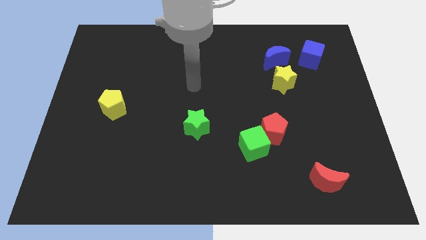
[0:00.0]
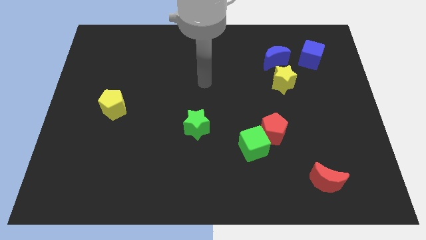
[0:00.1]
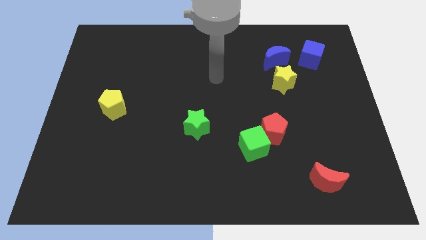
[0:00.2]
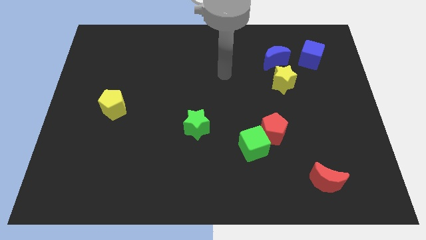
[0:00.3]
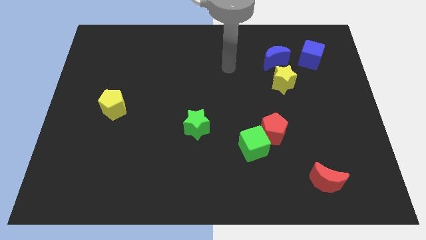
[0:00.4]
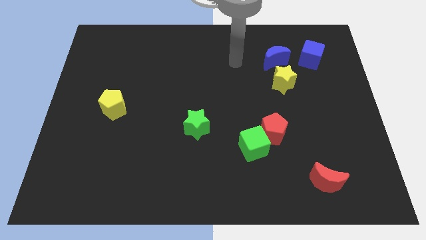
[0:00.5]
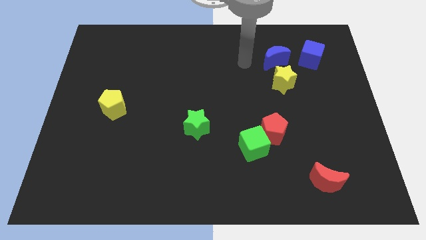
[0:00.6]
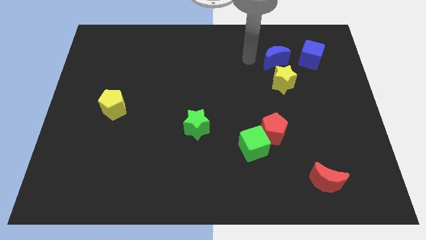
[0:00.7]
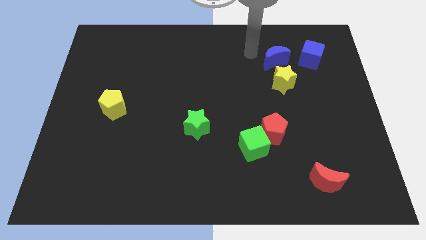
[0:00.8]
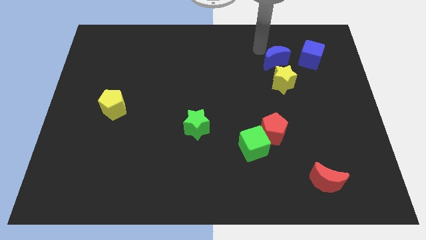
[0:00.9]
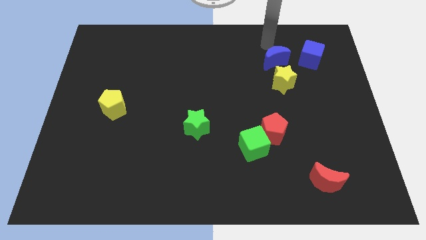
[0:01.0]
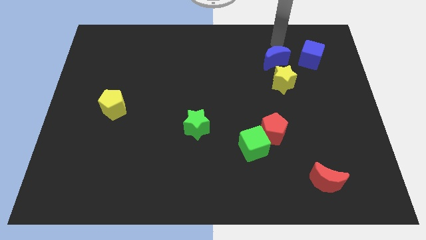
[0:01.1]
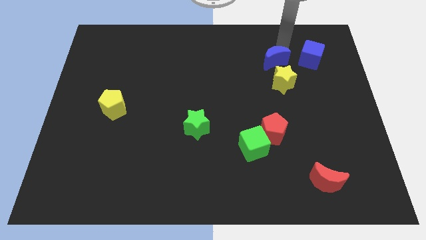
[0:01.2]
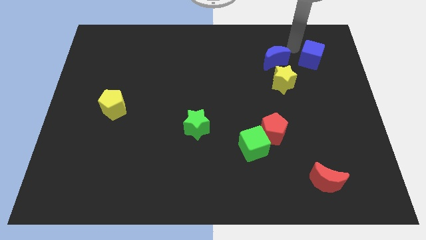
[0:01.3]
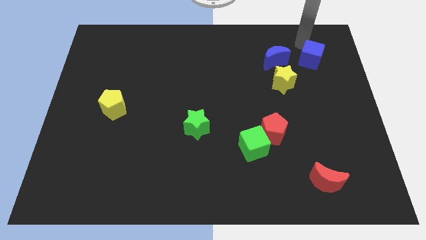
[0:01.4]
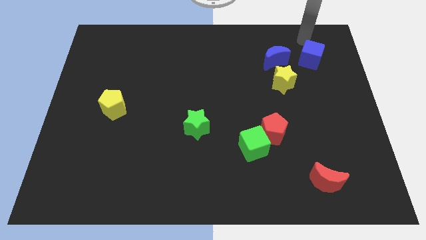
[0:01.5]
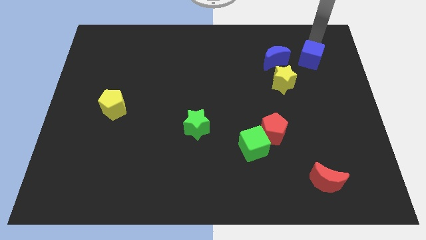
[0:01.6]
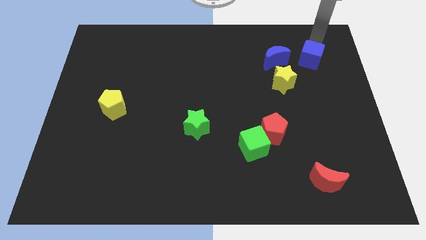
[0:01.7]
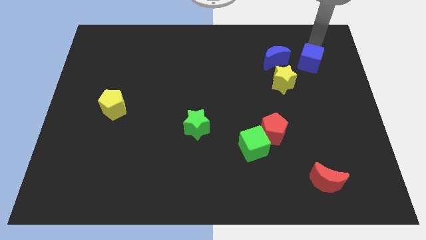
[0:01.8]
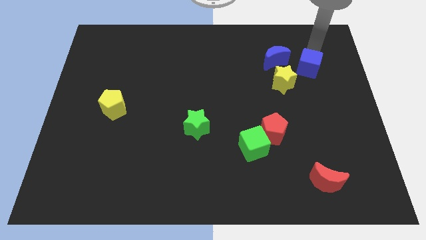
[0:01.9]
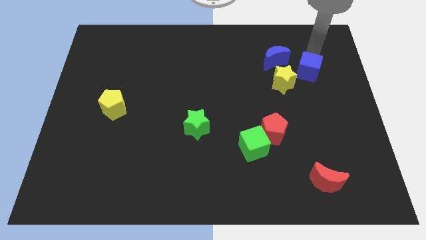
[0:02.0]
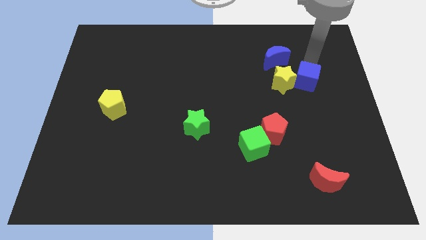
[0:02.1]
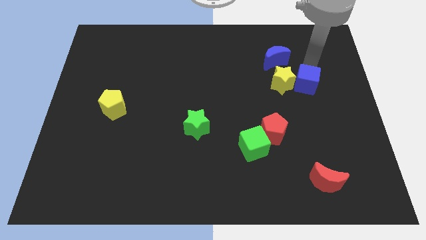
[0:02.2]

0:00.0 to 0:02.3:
slightly slide the blue cube diagonally downwards and to the left

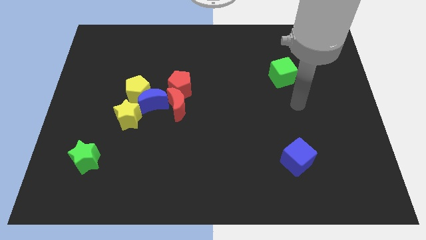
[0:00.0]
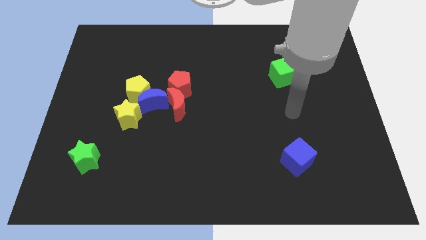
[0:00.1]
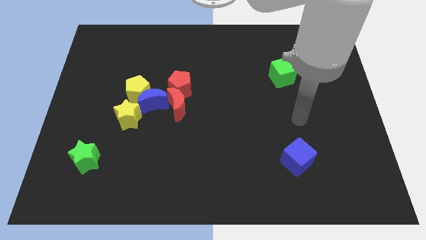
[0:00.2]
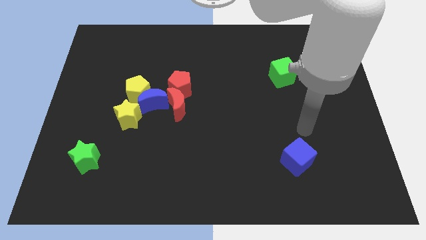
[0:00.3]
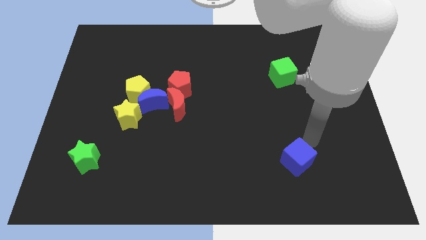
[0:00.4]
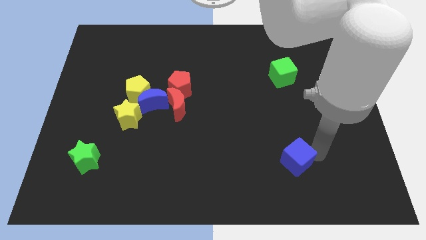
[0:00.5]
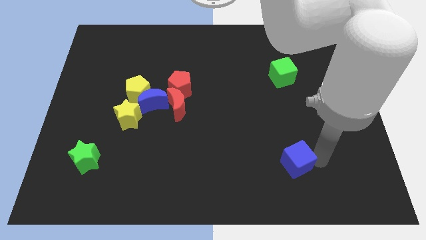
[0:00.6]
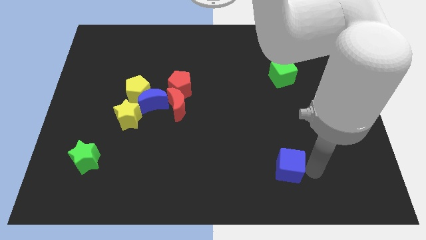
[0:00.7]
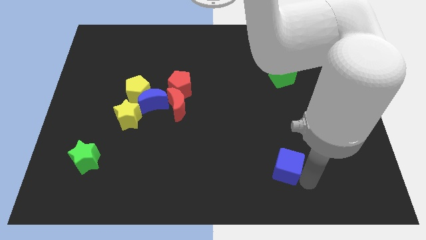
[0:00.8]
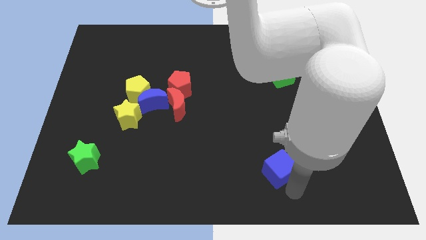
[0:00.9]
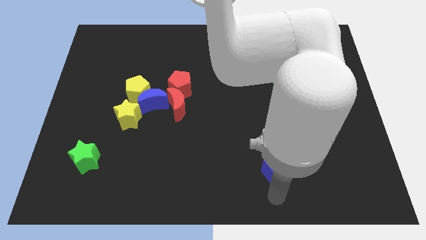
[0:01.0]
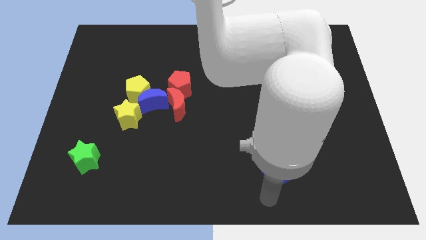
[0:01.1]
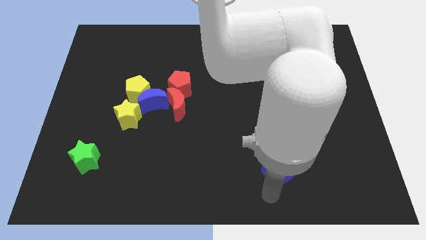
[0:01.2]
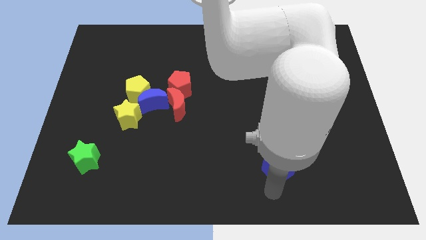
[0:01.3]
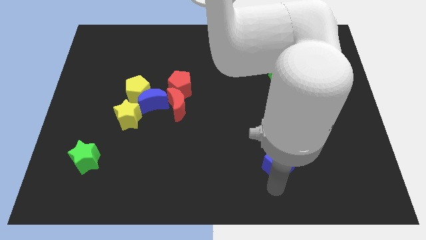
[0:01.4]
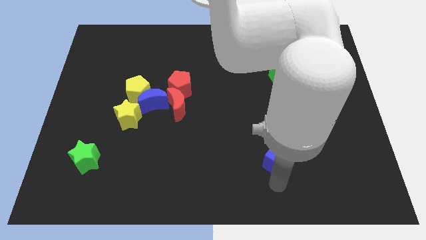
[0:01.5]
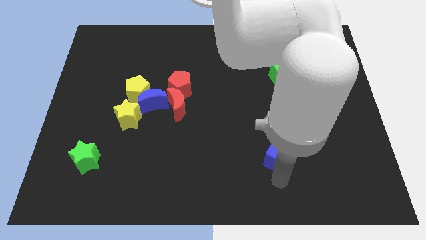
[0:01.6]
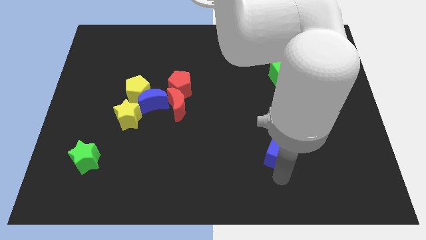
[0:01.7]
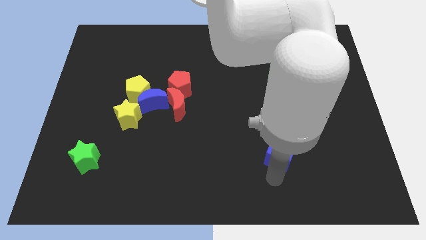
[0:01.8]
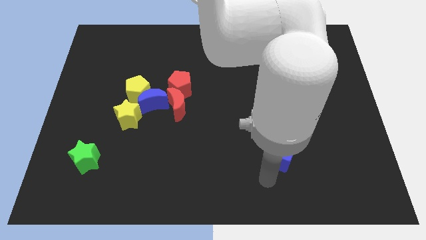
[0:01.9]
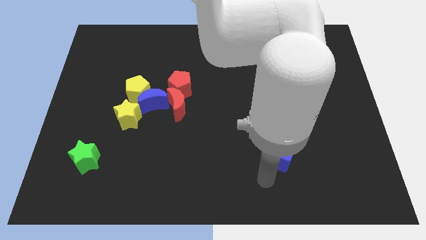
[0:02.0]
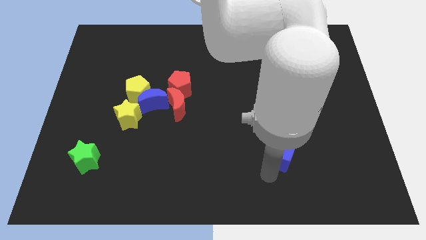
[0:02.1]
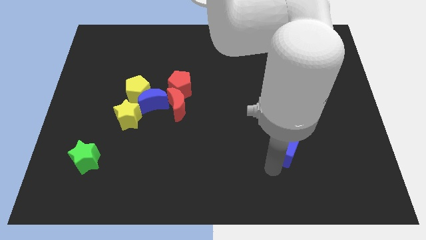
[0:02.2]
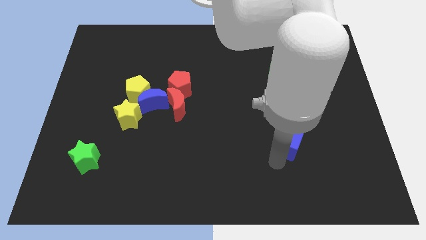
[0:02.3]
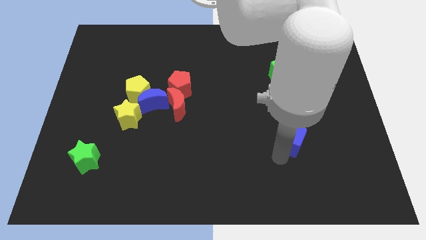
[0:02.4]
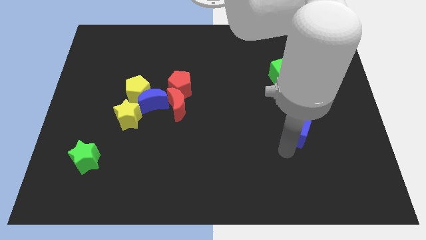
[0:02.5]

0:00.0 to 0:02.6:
slide the blue cube up somewhat

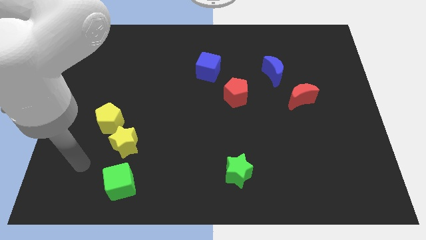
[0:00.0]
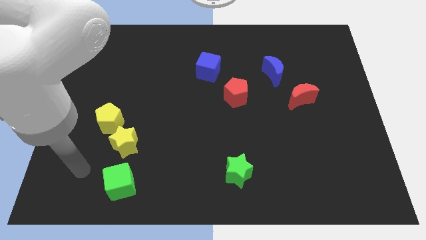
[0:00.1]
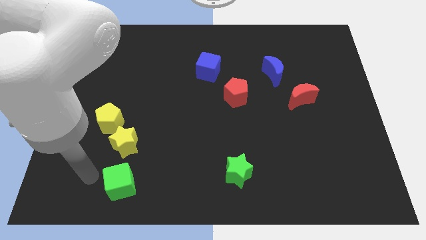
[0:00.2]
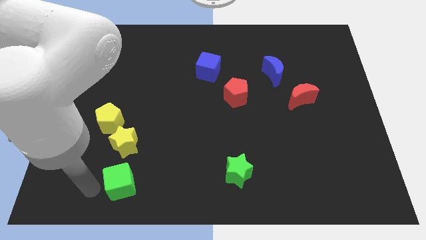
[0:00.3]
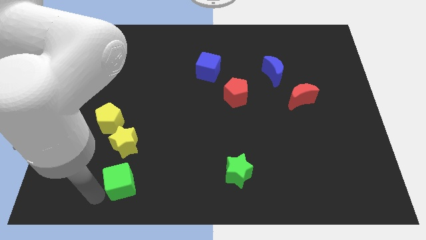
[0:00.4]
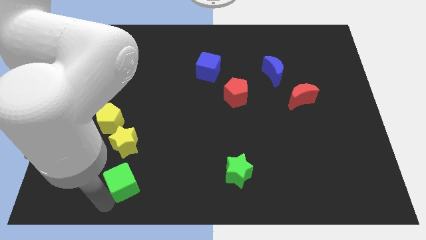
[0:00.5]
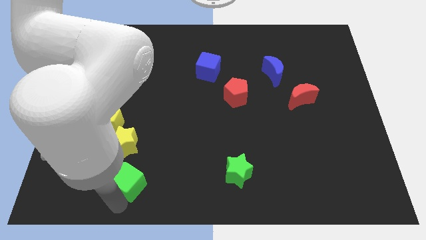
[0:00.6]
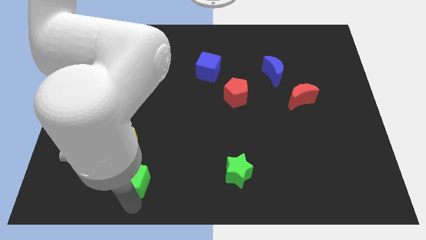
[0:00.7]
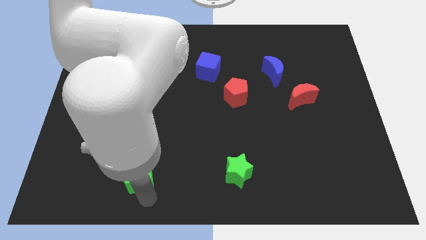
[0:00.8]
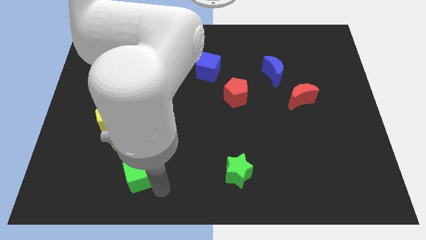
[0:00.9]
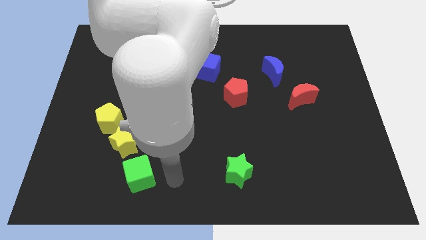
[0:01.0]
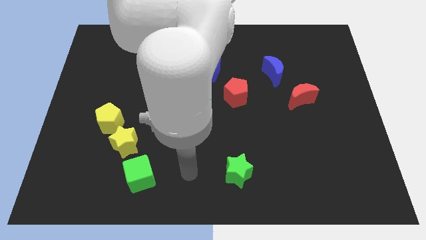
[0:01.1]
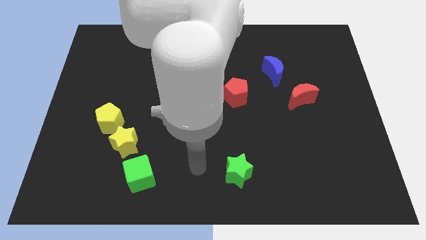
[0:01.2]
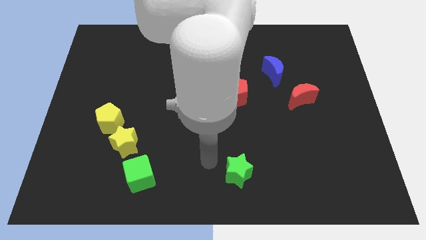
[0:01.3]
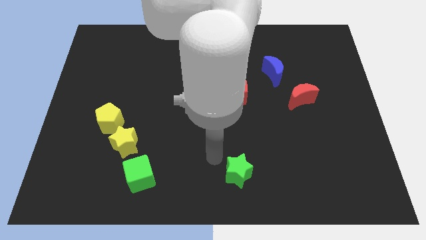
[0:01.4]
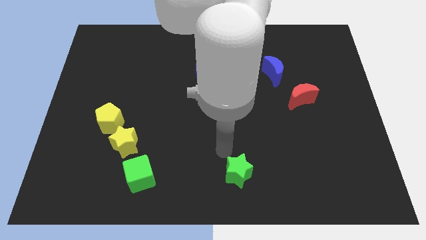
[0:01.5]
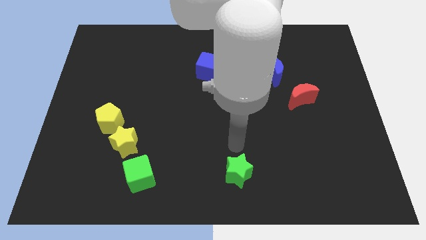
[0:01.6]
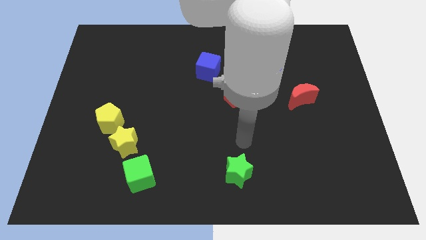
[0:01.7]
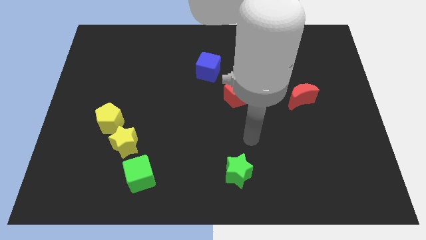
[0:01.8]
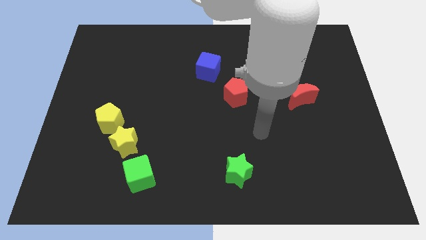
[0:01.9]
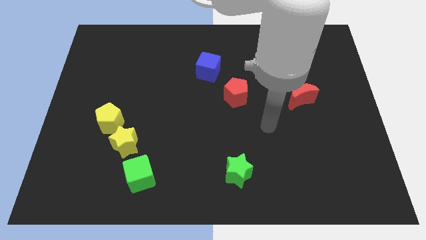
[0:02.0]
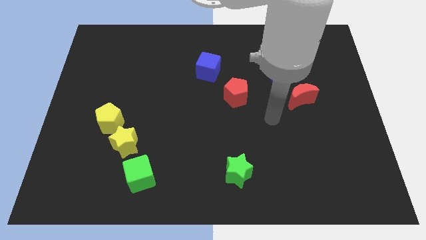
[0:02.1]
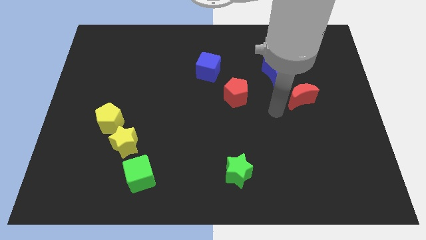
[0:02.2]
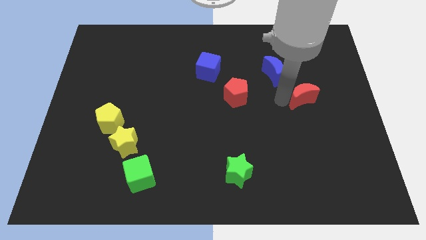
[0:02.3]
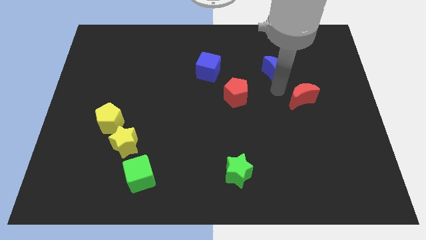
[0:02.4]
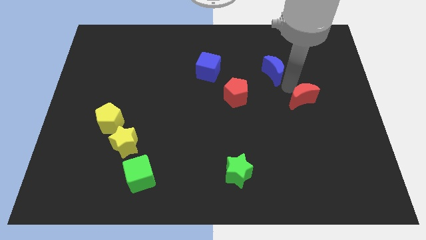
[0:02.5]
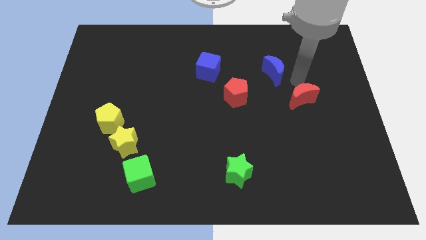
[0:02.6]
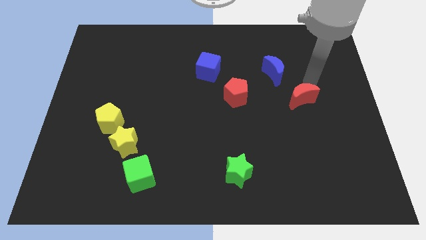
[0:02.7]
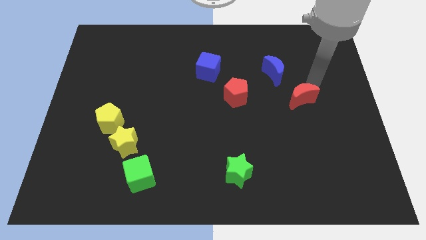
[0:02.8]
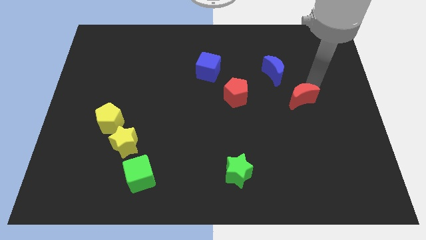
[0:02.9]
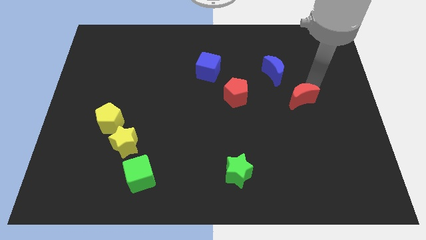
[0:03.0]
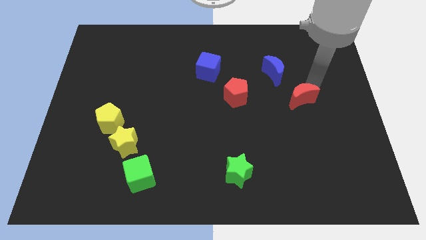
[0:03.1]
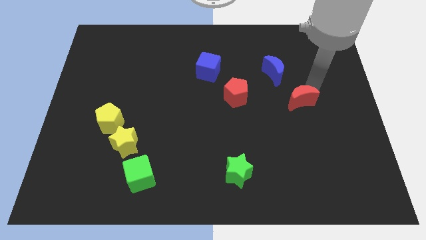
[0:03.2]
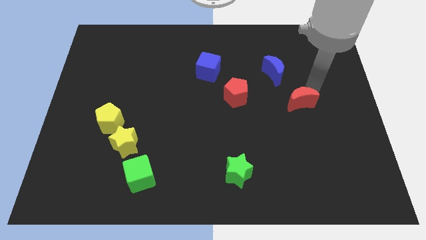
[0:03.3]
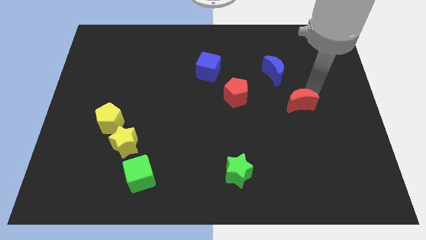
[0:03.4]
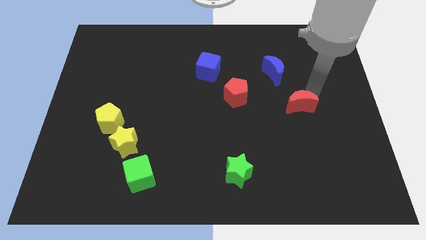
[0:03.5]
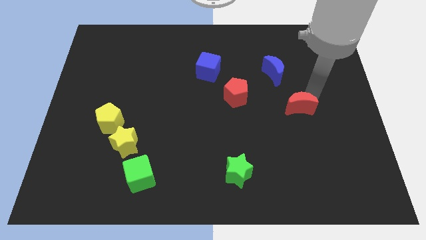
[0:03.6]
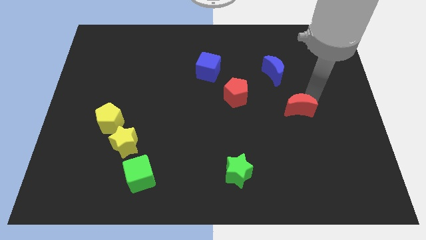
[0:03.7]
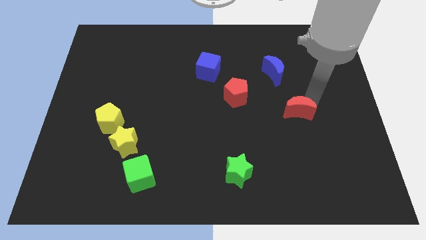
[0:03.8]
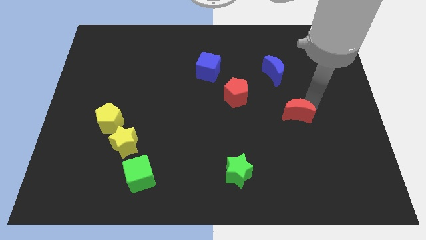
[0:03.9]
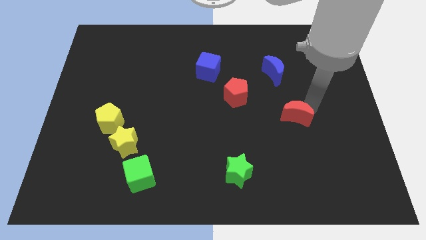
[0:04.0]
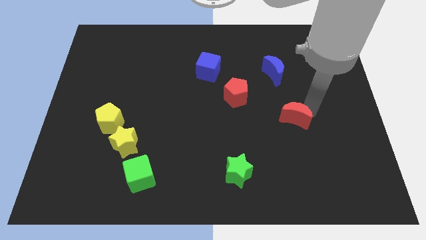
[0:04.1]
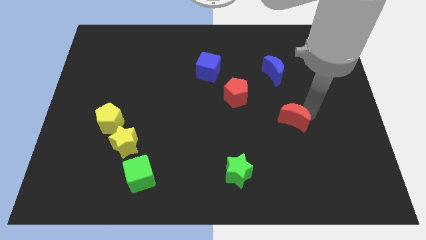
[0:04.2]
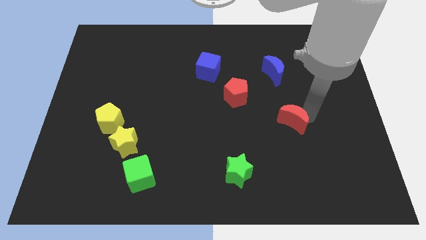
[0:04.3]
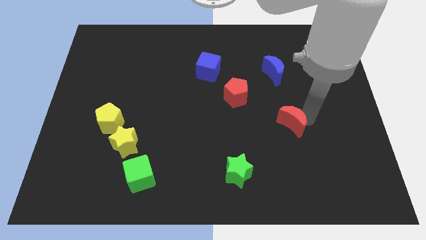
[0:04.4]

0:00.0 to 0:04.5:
slightly slide the red moon downwards and left
